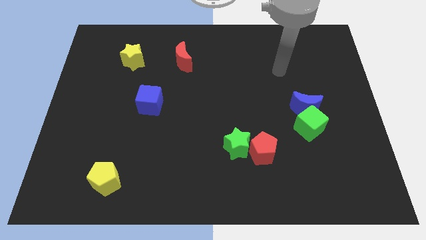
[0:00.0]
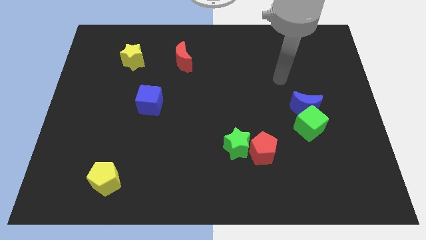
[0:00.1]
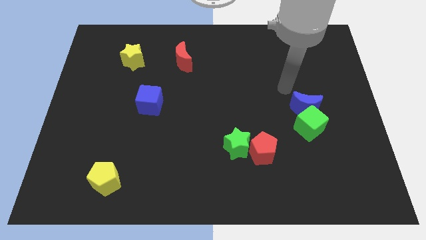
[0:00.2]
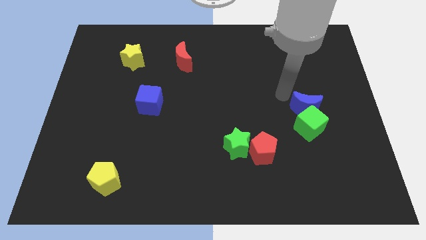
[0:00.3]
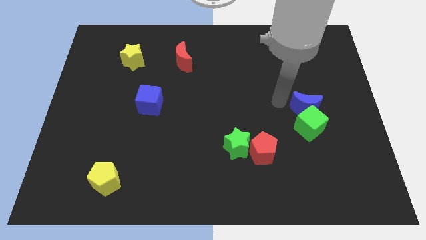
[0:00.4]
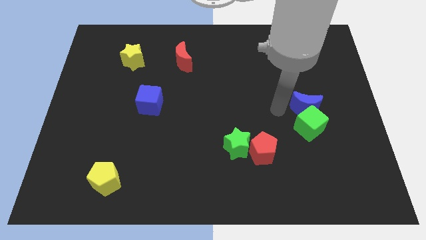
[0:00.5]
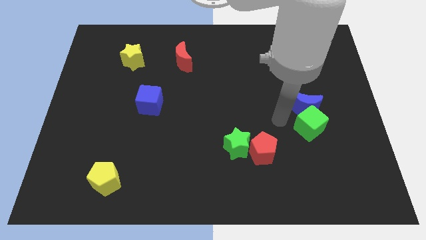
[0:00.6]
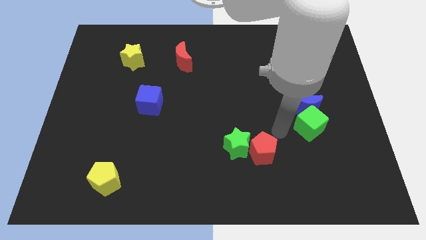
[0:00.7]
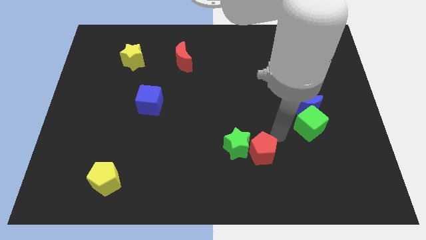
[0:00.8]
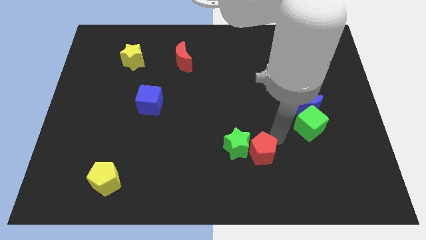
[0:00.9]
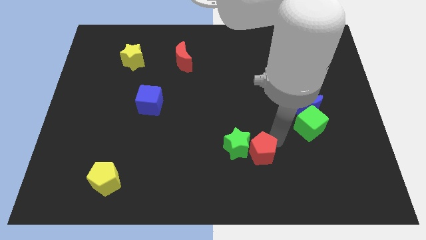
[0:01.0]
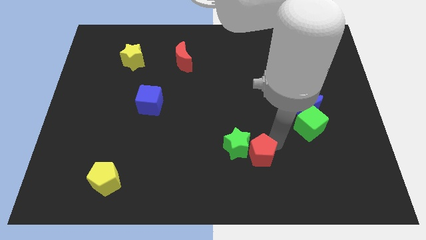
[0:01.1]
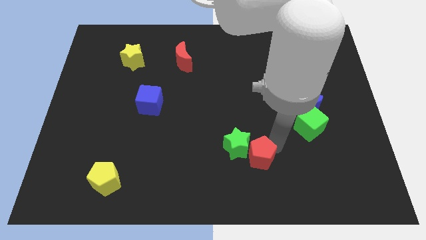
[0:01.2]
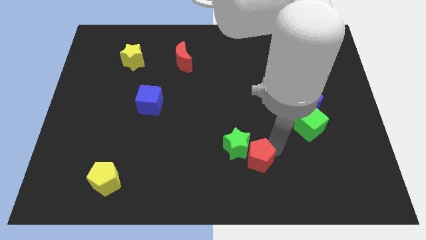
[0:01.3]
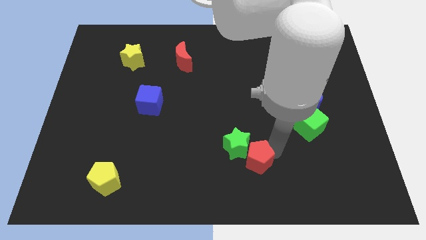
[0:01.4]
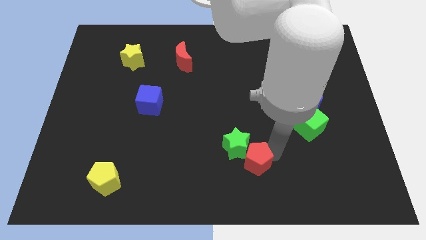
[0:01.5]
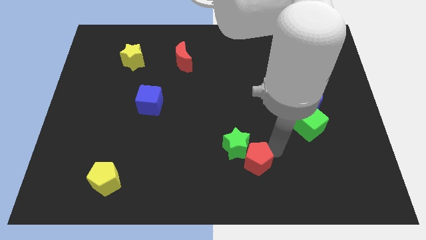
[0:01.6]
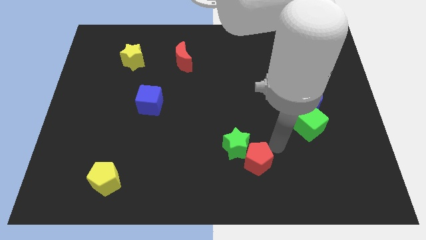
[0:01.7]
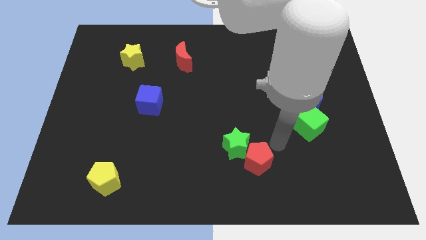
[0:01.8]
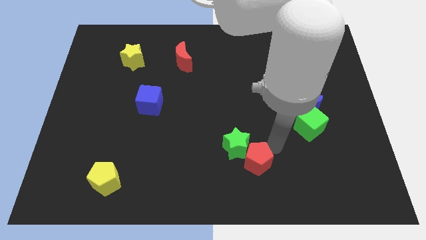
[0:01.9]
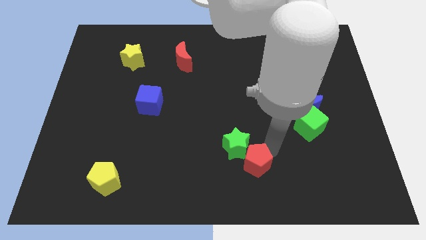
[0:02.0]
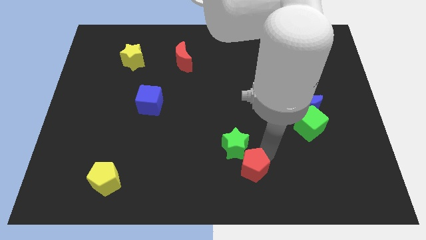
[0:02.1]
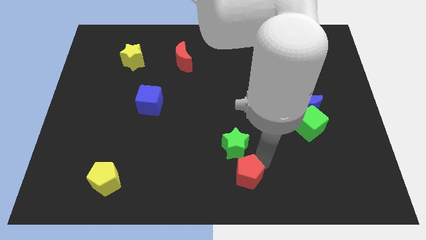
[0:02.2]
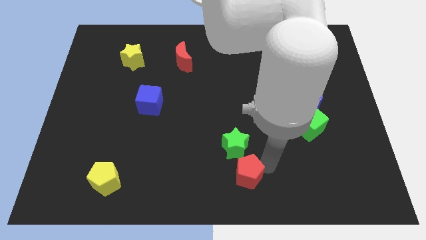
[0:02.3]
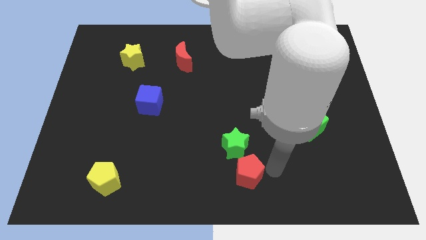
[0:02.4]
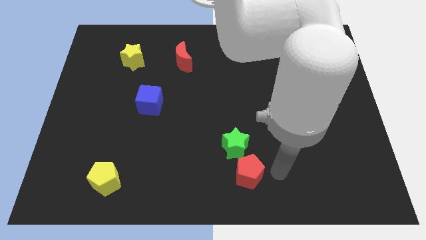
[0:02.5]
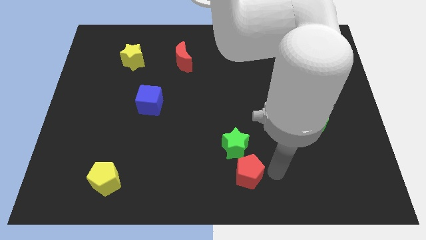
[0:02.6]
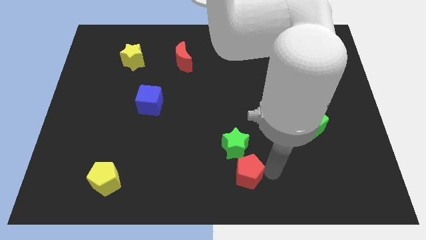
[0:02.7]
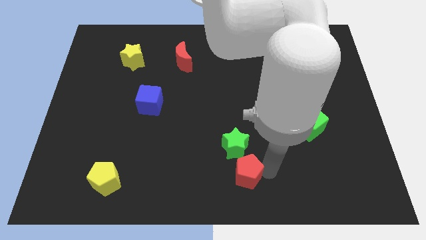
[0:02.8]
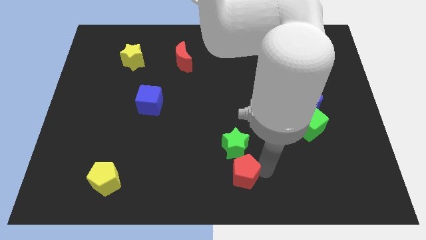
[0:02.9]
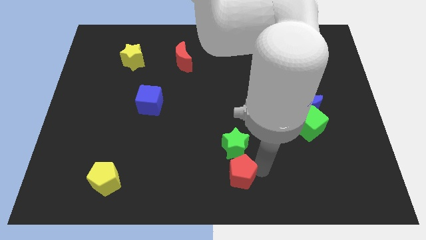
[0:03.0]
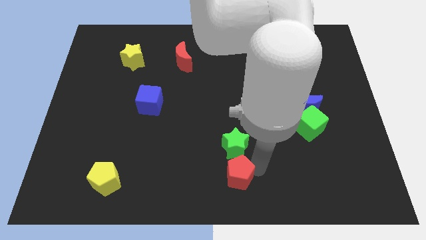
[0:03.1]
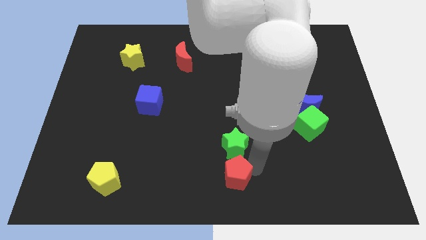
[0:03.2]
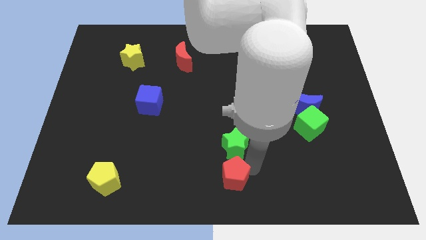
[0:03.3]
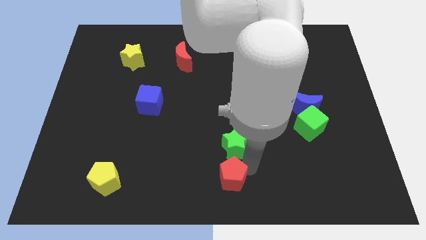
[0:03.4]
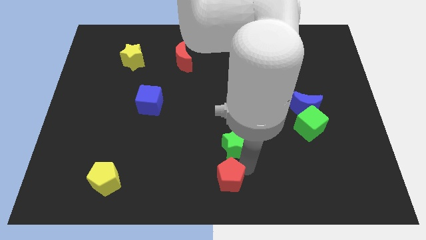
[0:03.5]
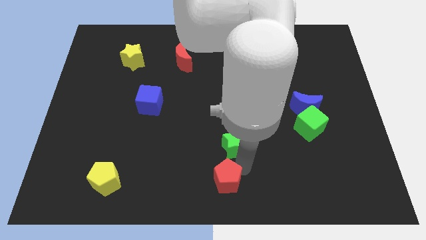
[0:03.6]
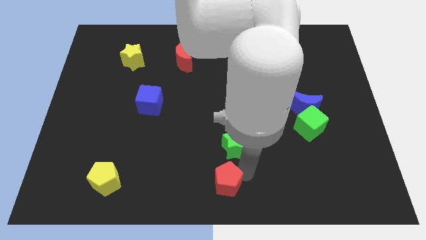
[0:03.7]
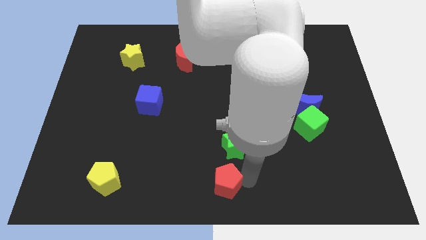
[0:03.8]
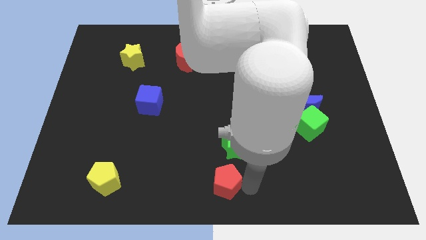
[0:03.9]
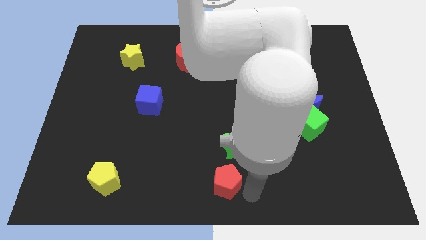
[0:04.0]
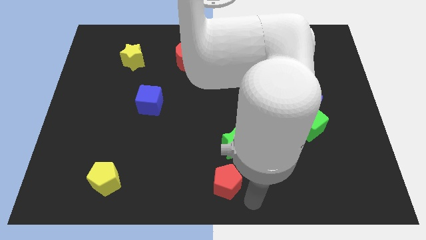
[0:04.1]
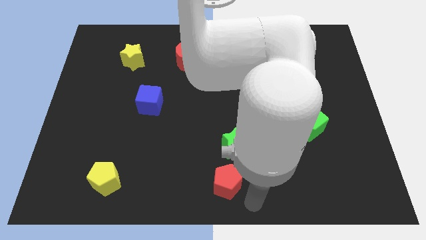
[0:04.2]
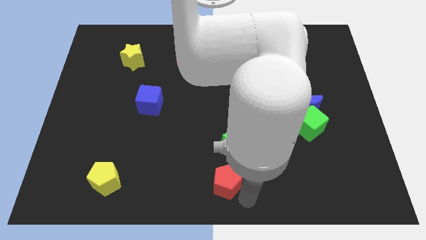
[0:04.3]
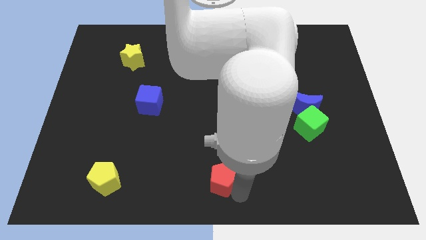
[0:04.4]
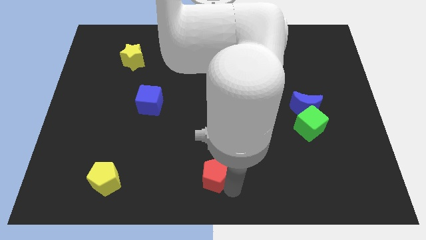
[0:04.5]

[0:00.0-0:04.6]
move the red pentagon somewhat left

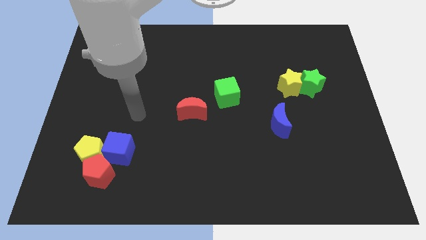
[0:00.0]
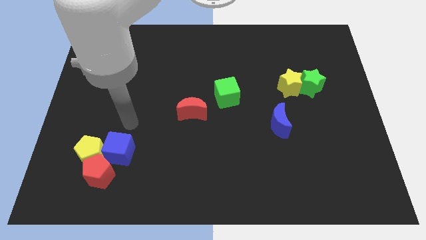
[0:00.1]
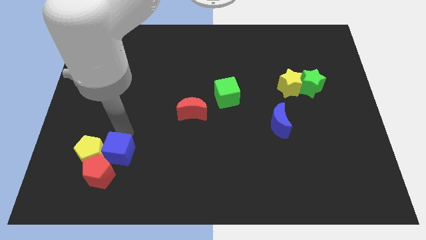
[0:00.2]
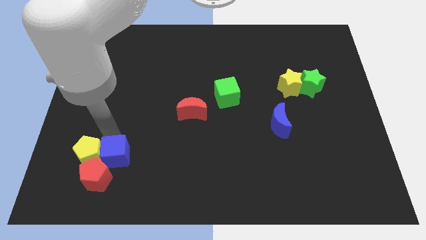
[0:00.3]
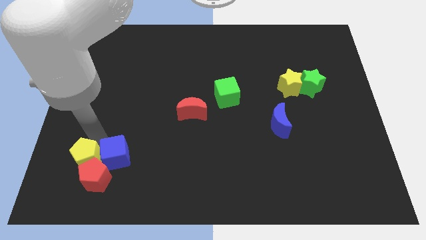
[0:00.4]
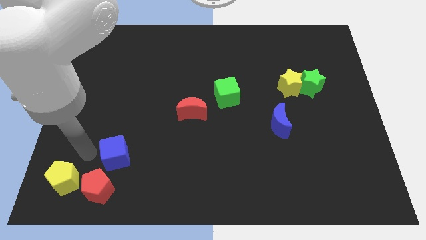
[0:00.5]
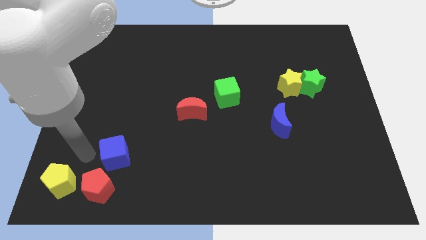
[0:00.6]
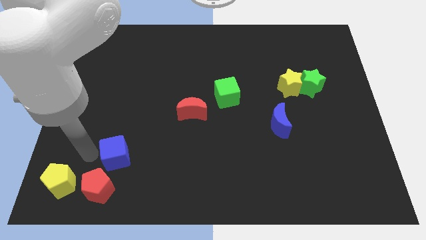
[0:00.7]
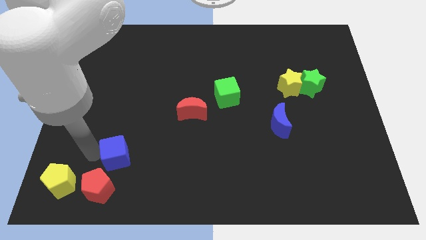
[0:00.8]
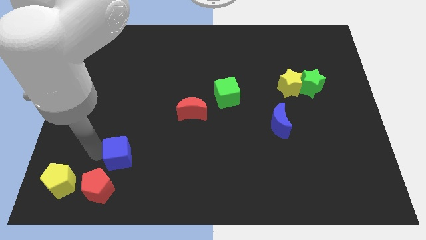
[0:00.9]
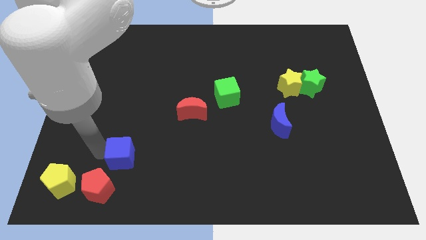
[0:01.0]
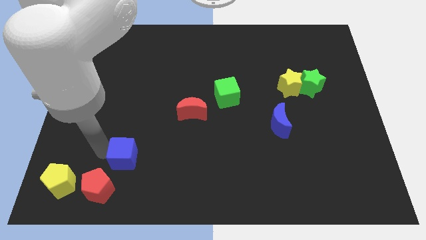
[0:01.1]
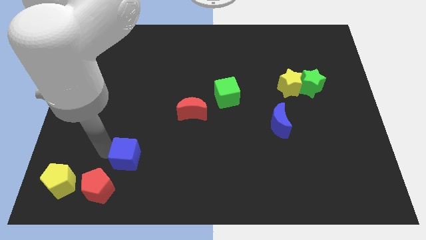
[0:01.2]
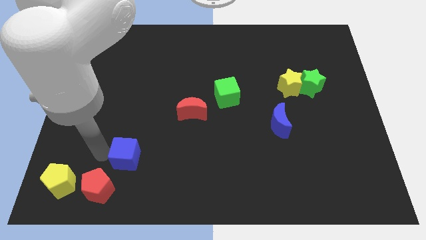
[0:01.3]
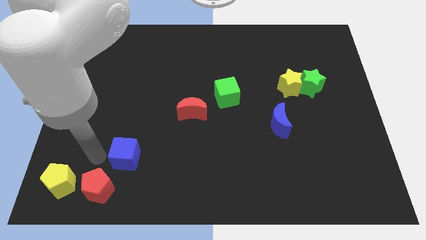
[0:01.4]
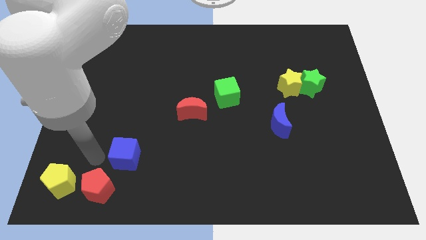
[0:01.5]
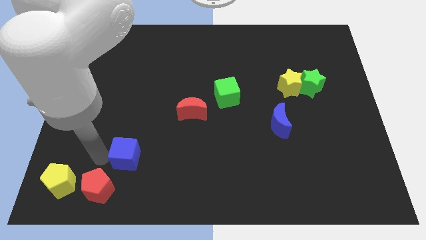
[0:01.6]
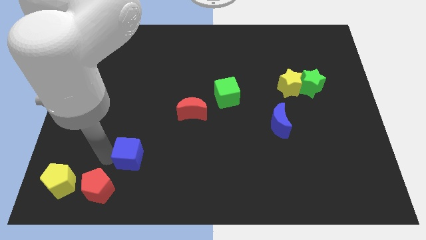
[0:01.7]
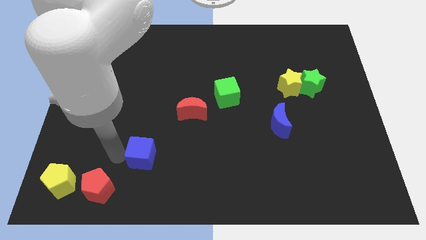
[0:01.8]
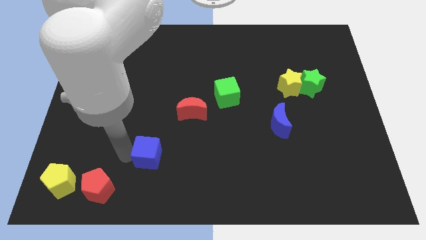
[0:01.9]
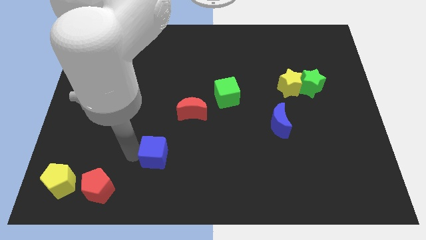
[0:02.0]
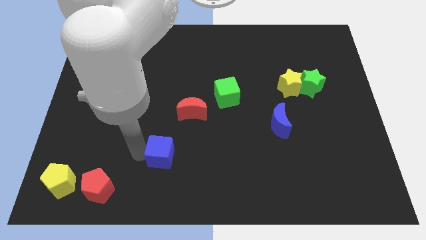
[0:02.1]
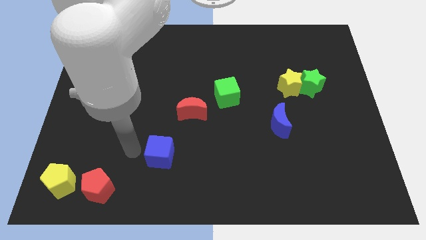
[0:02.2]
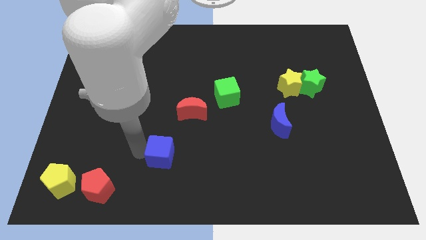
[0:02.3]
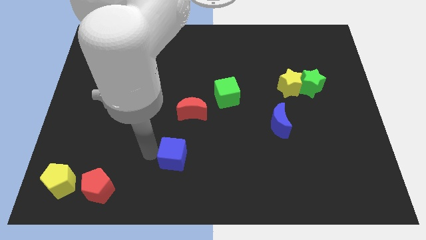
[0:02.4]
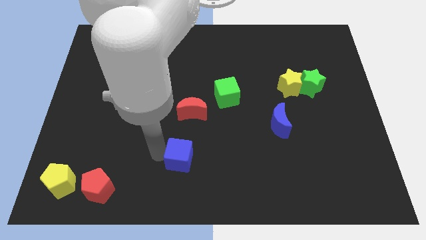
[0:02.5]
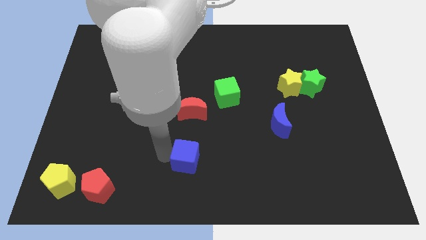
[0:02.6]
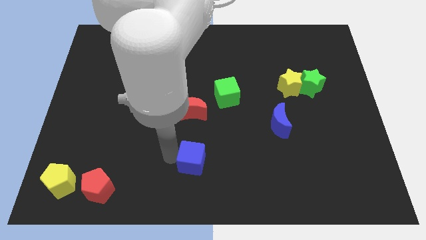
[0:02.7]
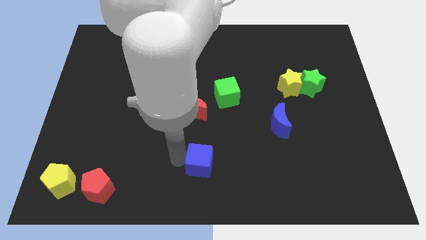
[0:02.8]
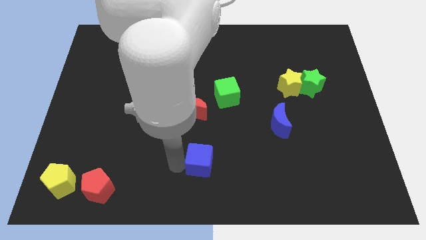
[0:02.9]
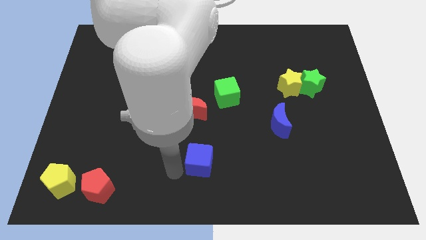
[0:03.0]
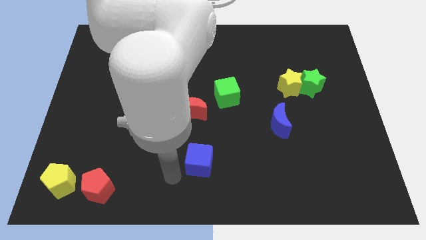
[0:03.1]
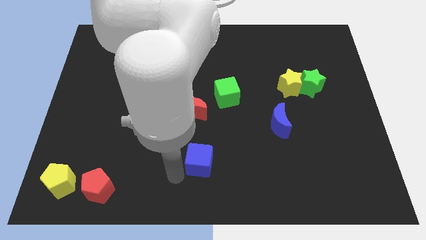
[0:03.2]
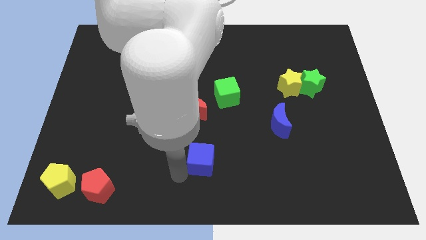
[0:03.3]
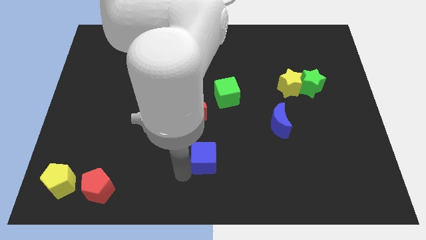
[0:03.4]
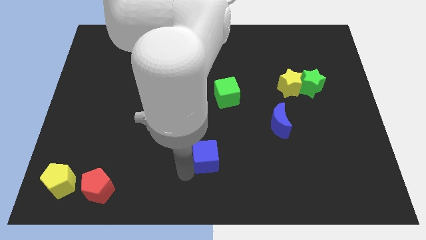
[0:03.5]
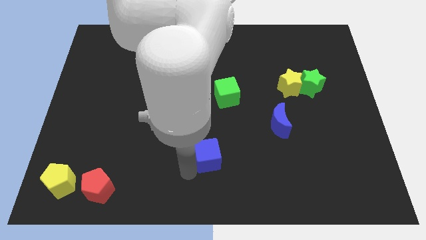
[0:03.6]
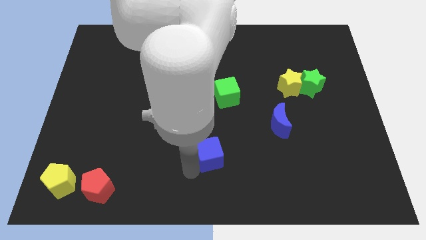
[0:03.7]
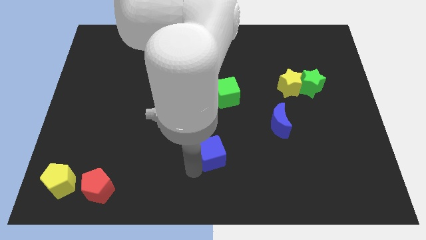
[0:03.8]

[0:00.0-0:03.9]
slide the blue cube right
